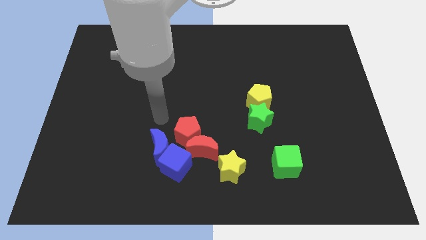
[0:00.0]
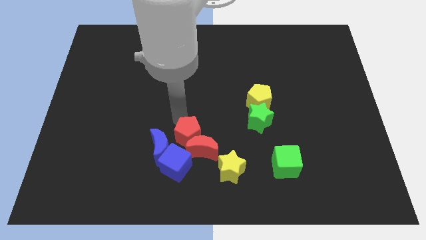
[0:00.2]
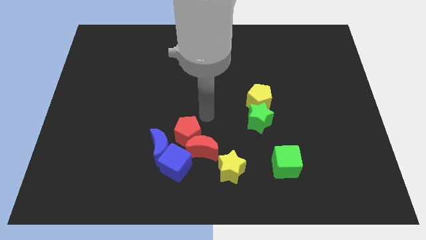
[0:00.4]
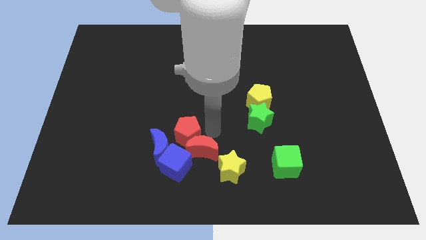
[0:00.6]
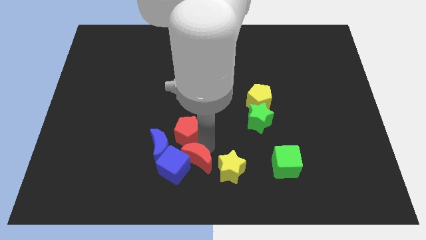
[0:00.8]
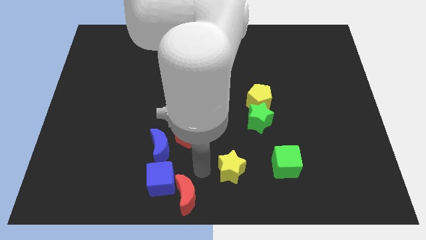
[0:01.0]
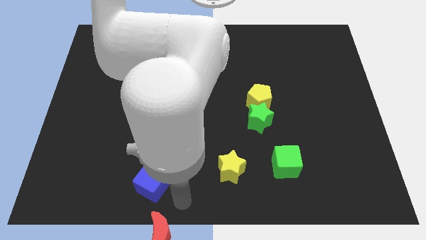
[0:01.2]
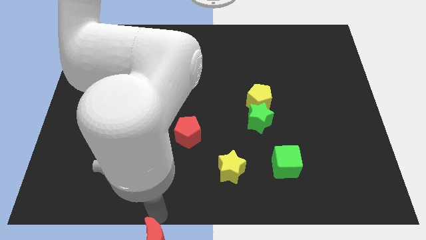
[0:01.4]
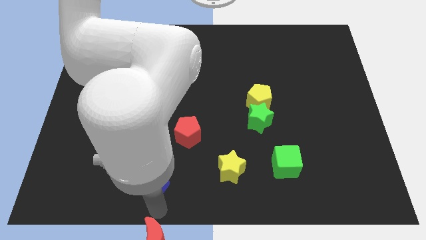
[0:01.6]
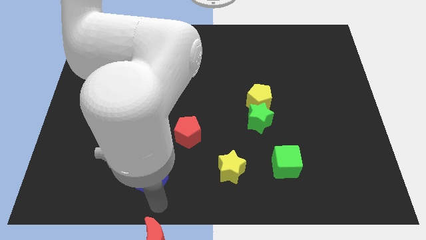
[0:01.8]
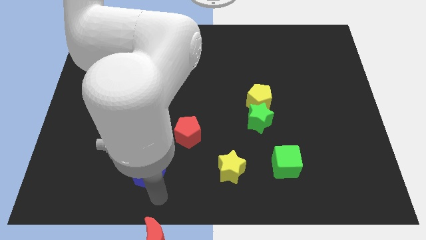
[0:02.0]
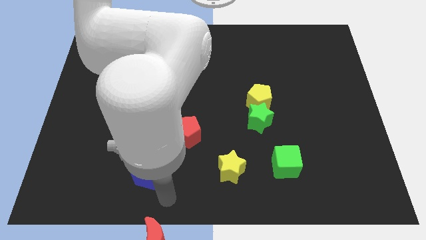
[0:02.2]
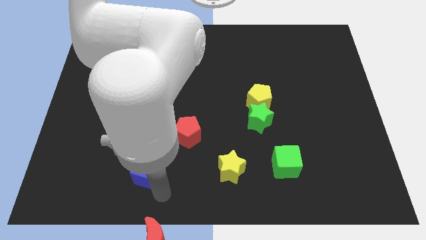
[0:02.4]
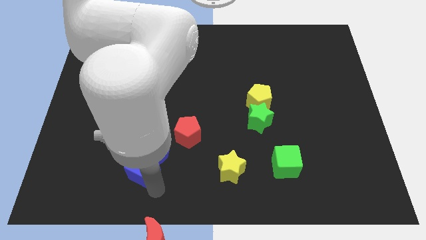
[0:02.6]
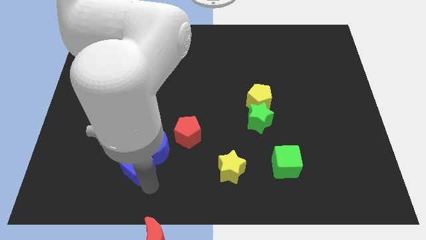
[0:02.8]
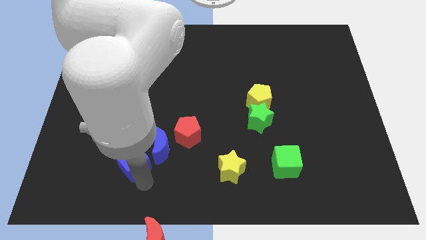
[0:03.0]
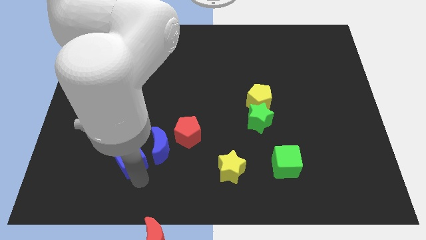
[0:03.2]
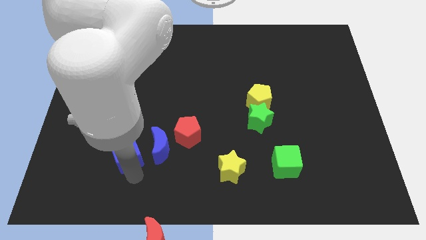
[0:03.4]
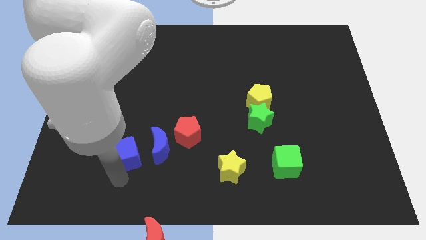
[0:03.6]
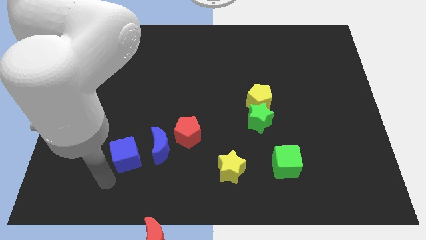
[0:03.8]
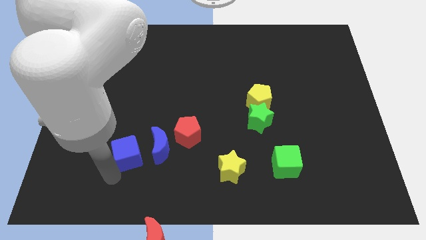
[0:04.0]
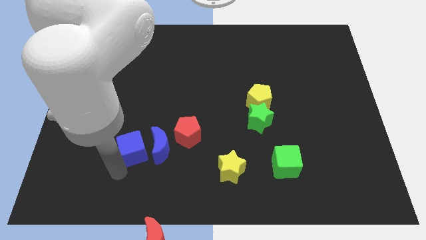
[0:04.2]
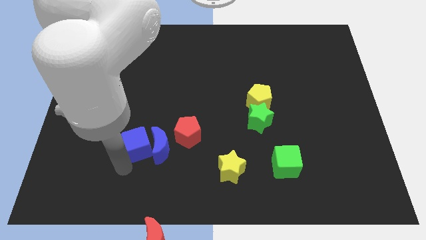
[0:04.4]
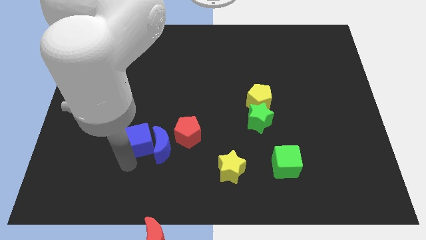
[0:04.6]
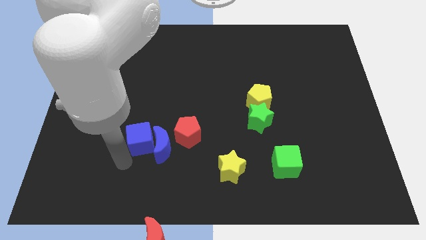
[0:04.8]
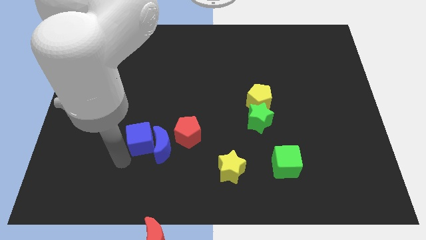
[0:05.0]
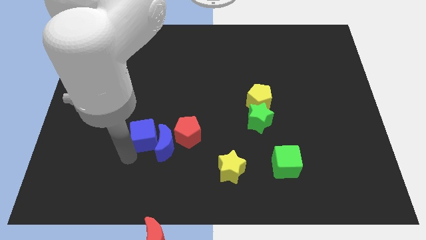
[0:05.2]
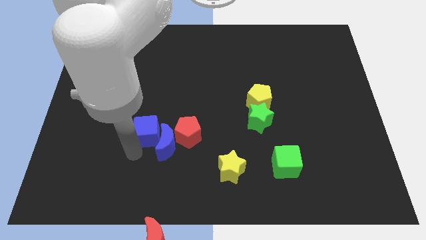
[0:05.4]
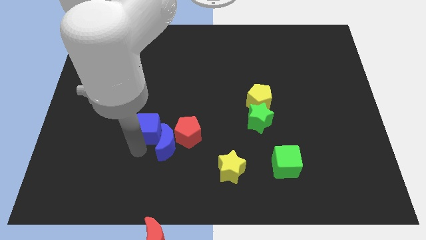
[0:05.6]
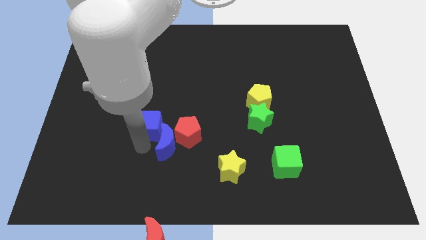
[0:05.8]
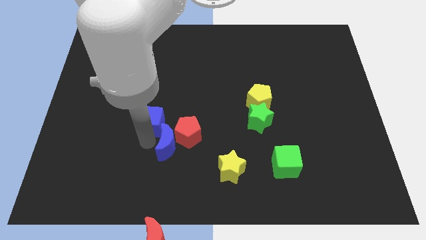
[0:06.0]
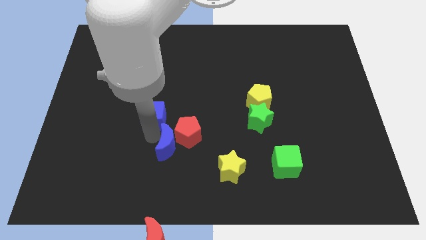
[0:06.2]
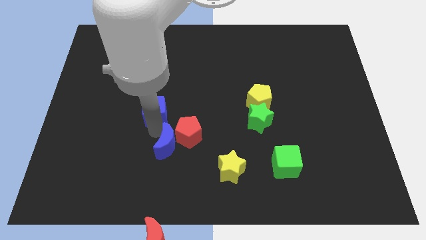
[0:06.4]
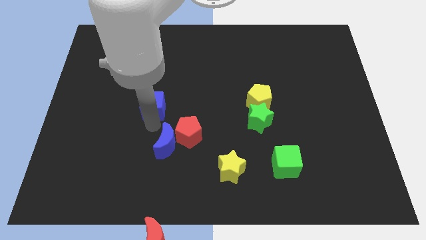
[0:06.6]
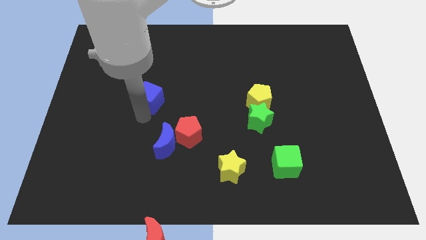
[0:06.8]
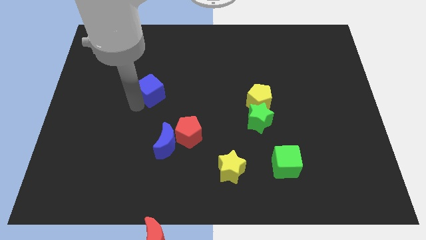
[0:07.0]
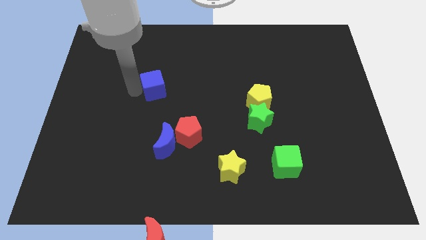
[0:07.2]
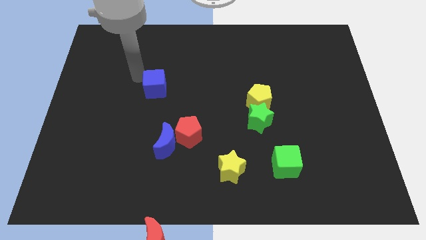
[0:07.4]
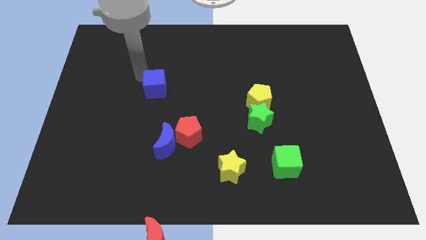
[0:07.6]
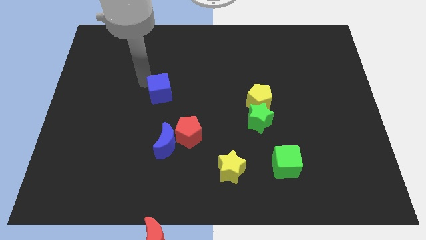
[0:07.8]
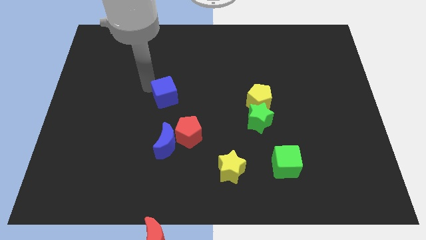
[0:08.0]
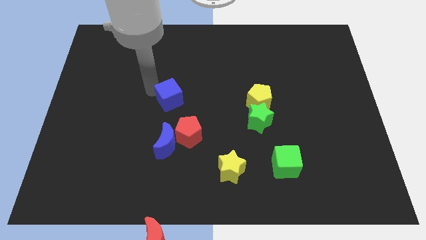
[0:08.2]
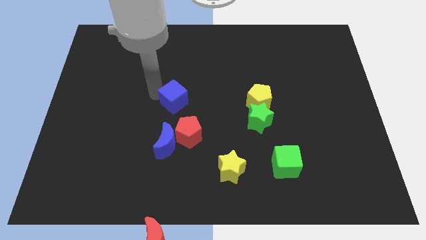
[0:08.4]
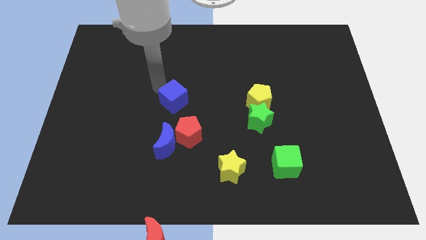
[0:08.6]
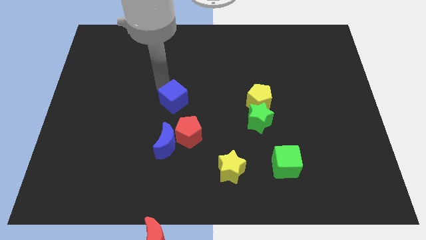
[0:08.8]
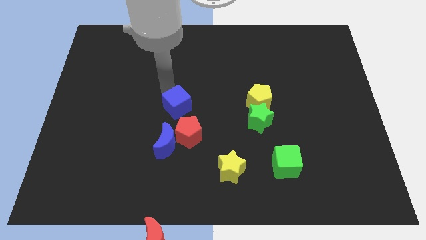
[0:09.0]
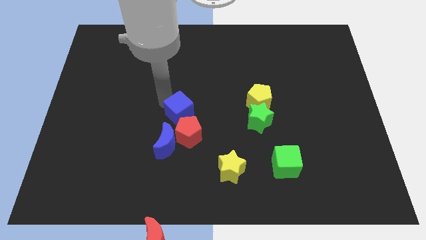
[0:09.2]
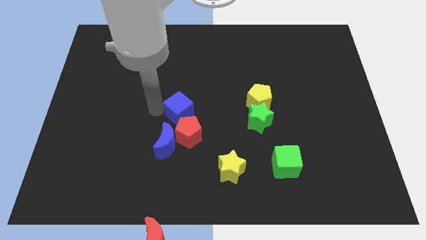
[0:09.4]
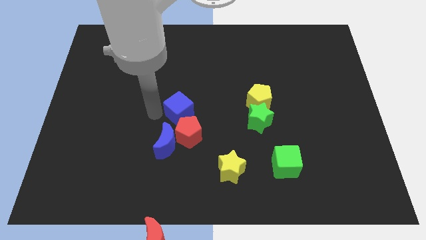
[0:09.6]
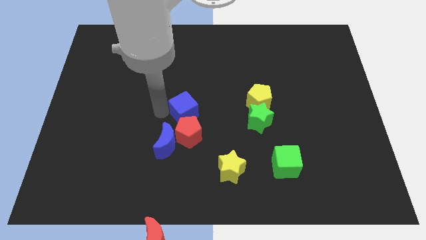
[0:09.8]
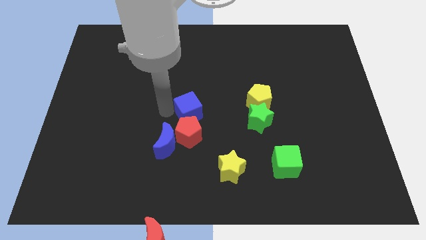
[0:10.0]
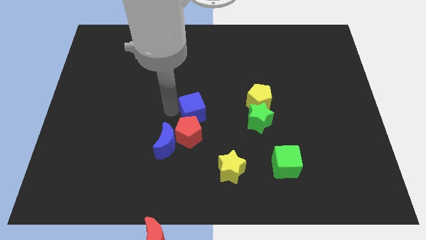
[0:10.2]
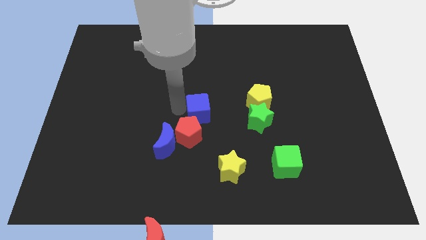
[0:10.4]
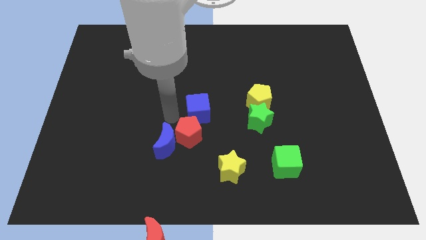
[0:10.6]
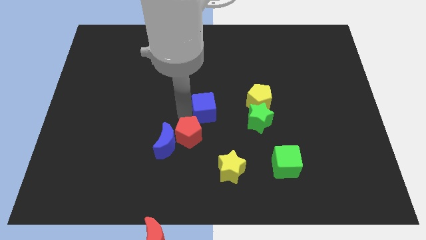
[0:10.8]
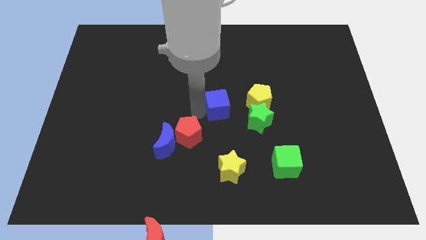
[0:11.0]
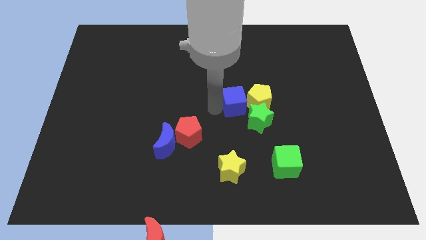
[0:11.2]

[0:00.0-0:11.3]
put the blue cube next to the yellow pentagon

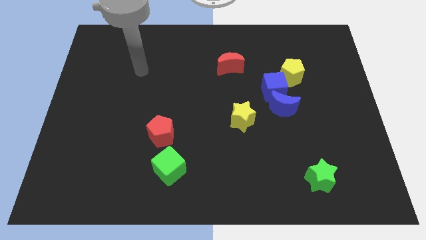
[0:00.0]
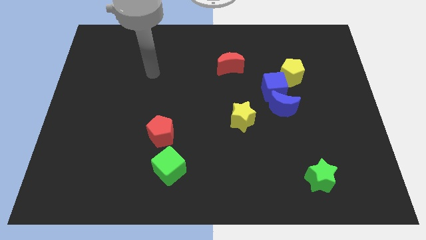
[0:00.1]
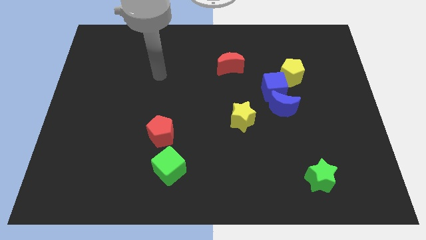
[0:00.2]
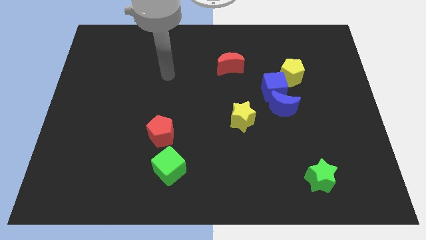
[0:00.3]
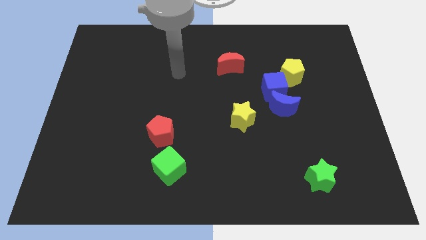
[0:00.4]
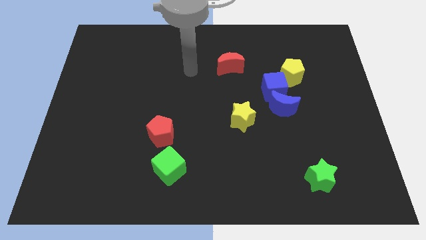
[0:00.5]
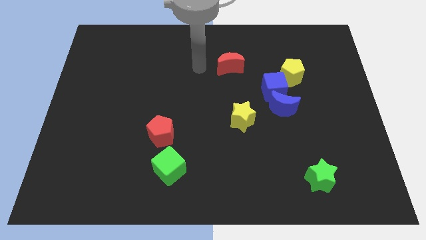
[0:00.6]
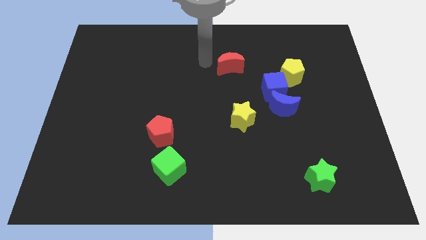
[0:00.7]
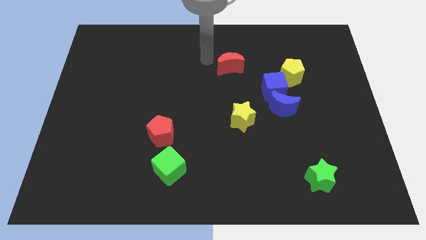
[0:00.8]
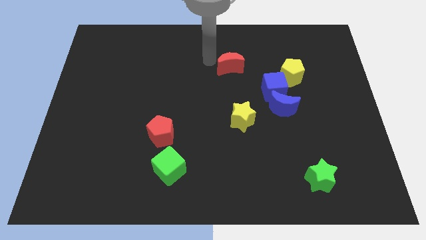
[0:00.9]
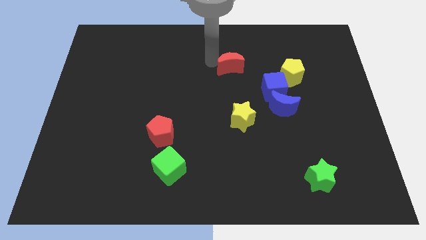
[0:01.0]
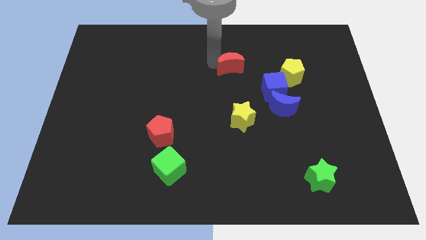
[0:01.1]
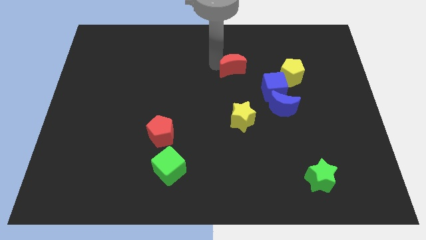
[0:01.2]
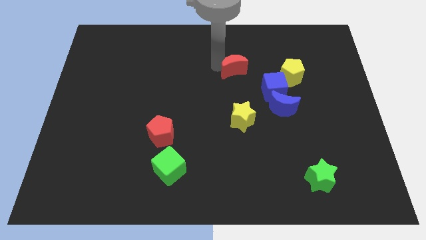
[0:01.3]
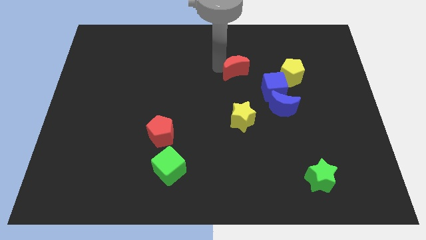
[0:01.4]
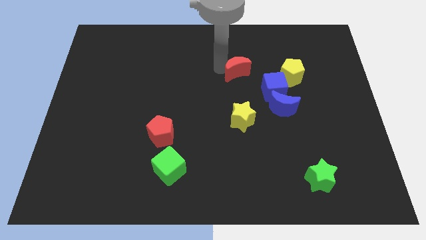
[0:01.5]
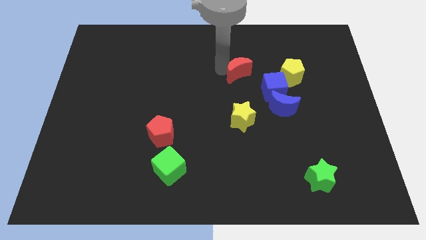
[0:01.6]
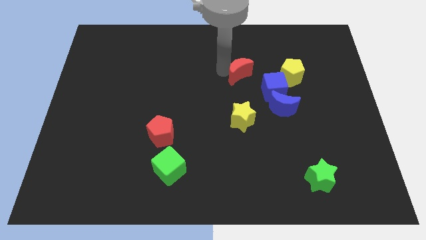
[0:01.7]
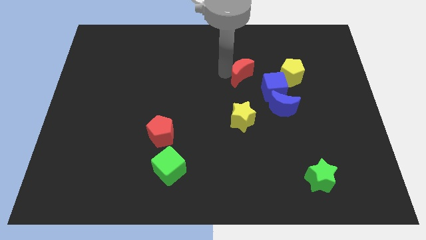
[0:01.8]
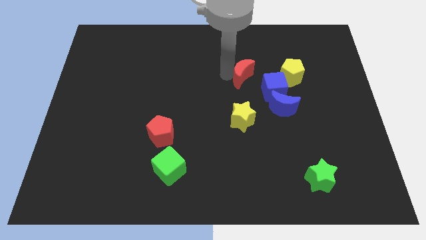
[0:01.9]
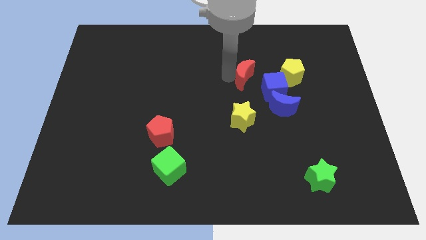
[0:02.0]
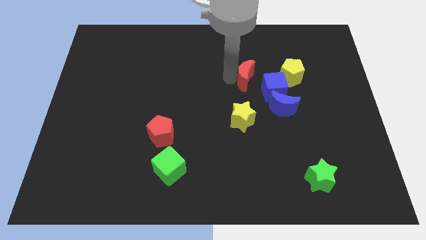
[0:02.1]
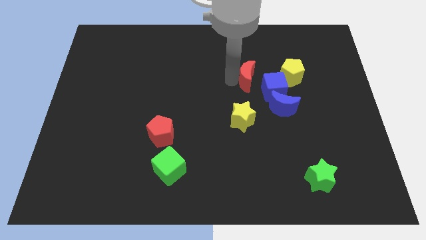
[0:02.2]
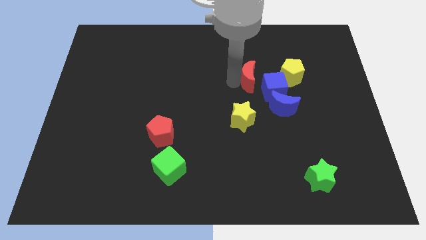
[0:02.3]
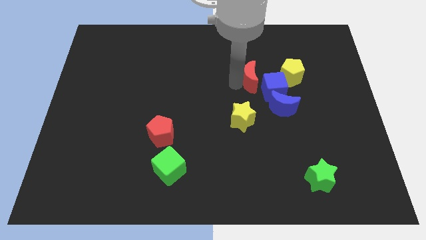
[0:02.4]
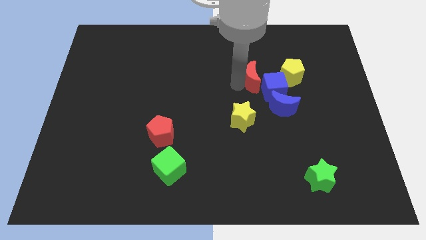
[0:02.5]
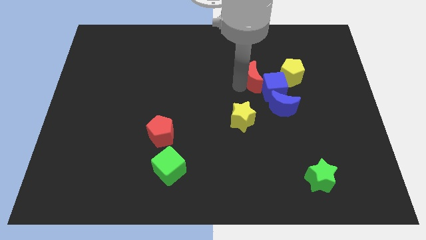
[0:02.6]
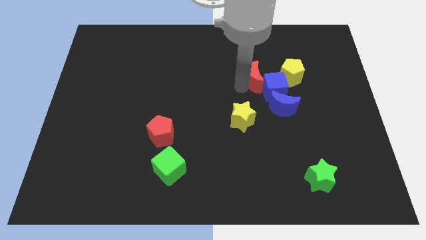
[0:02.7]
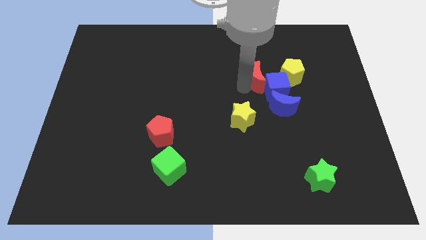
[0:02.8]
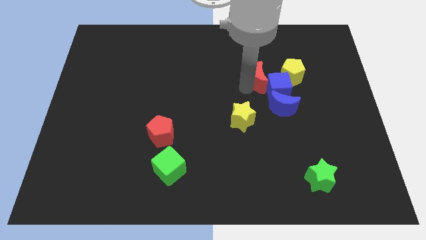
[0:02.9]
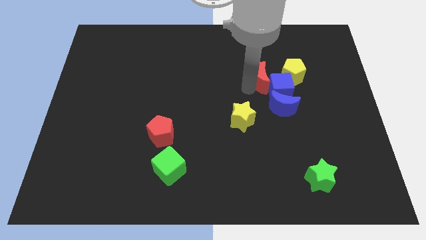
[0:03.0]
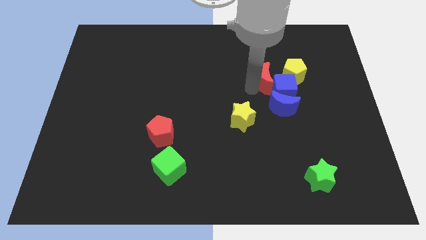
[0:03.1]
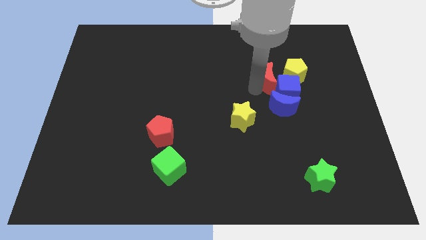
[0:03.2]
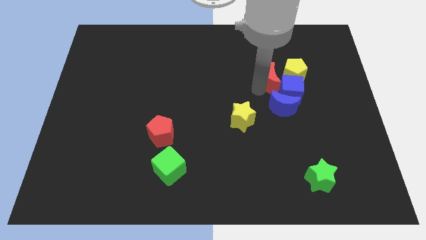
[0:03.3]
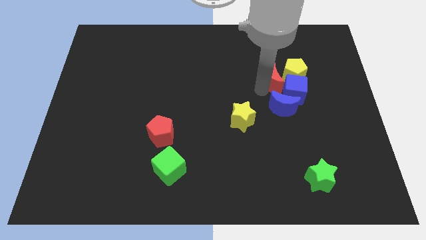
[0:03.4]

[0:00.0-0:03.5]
put the red moon towards the yellow pentagon
